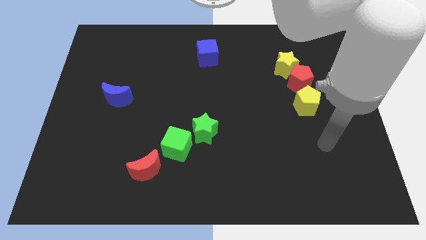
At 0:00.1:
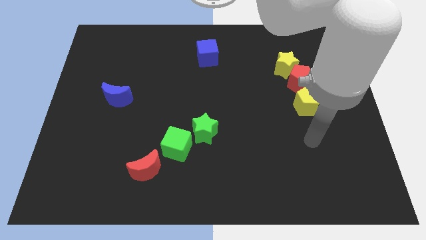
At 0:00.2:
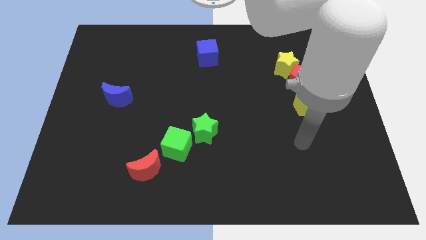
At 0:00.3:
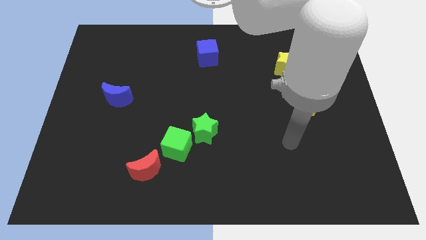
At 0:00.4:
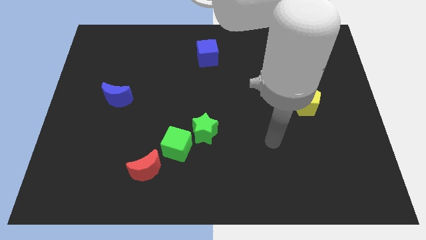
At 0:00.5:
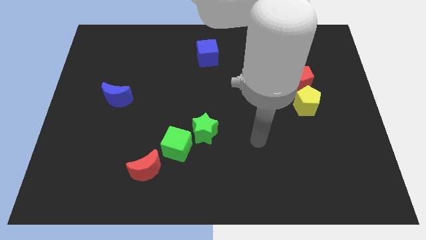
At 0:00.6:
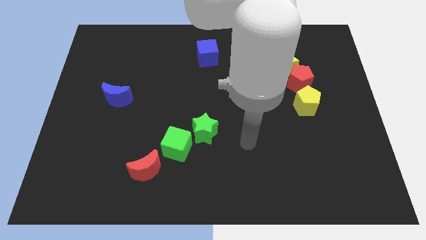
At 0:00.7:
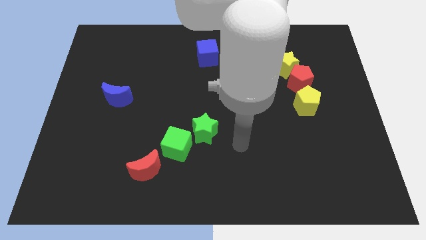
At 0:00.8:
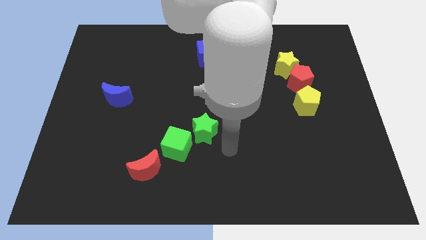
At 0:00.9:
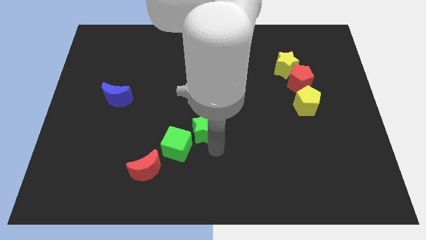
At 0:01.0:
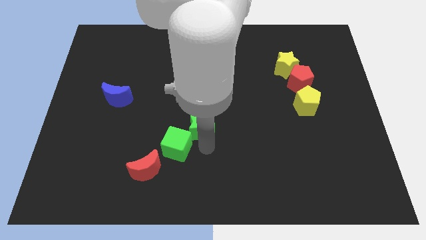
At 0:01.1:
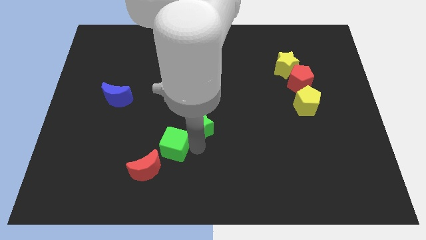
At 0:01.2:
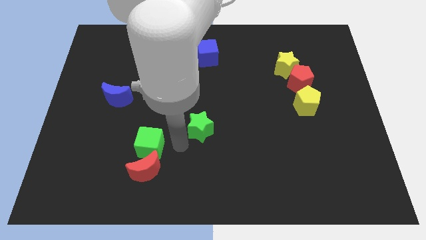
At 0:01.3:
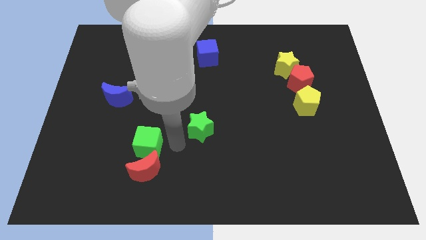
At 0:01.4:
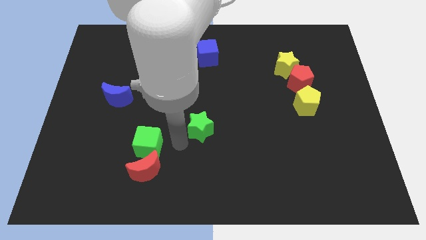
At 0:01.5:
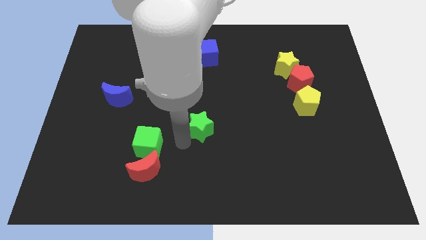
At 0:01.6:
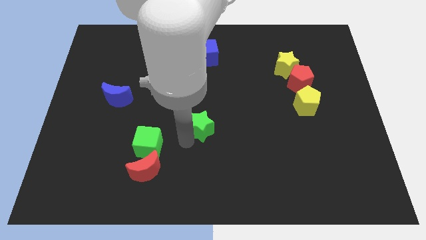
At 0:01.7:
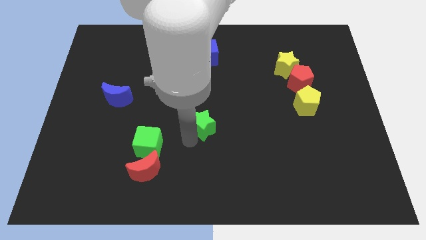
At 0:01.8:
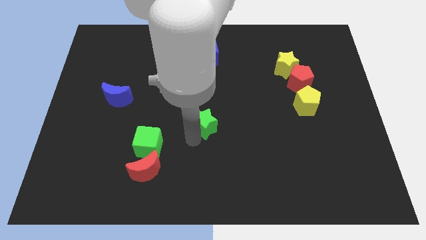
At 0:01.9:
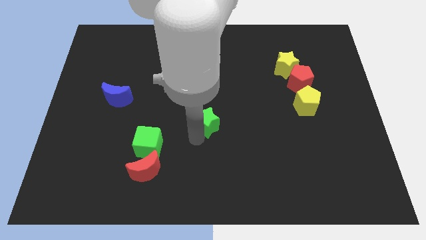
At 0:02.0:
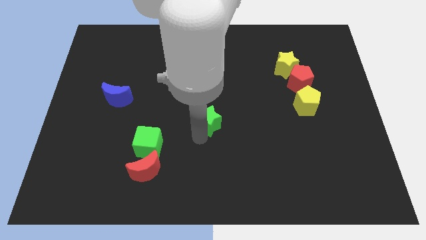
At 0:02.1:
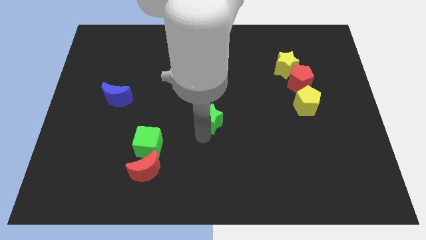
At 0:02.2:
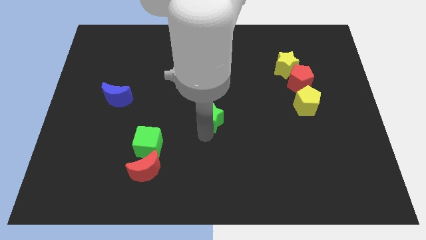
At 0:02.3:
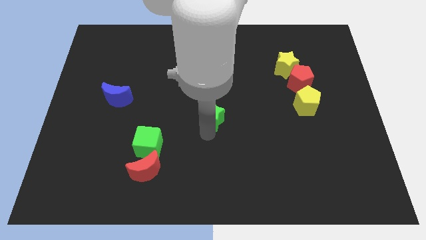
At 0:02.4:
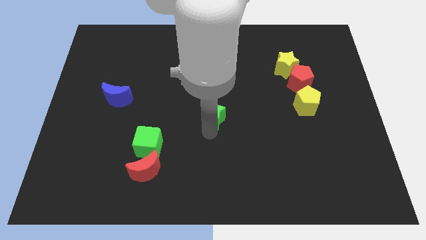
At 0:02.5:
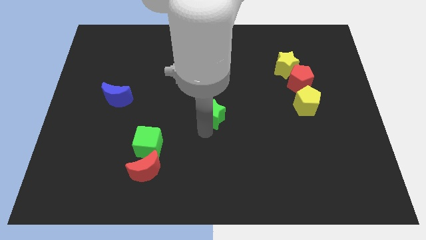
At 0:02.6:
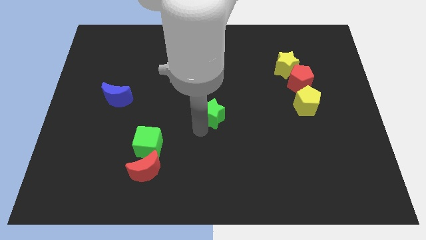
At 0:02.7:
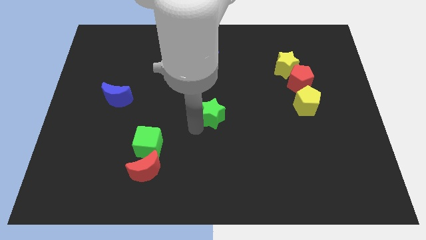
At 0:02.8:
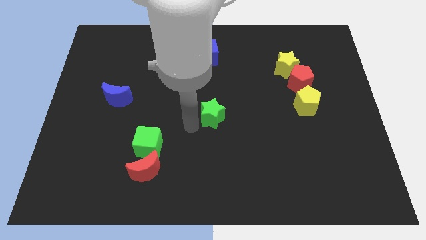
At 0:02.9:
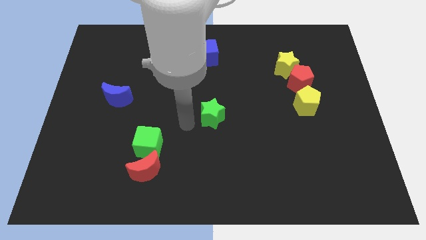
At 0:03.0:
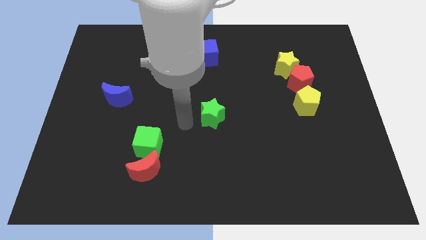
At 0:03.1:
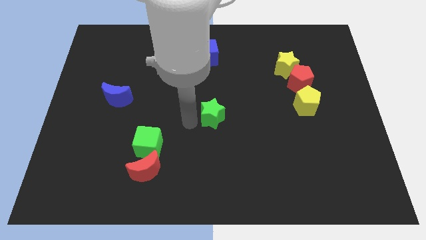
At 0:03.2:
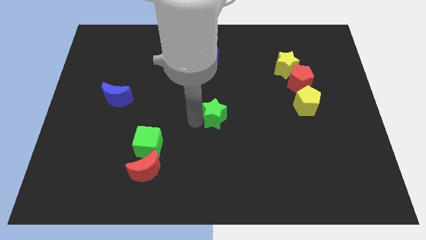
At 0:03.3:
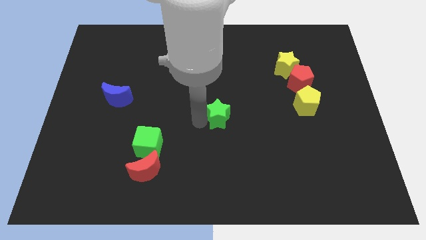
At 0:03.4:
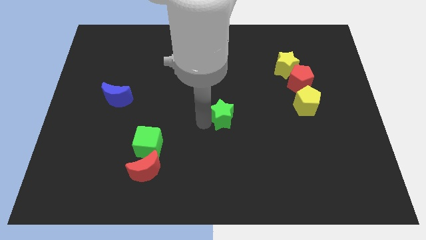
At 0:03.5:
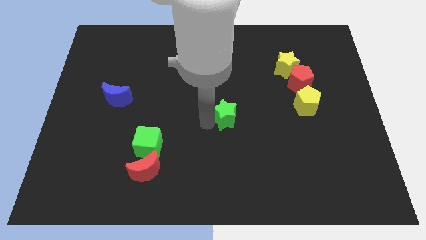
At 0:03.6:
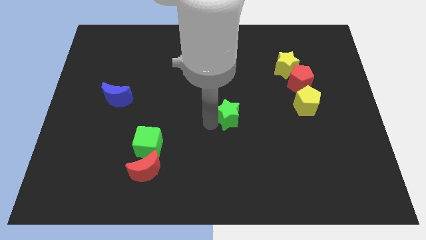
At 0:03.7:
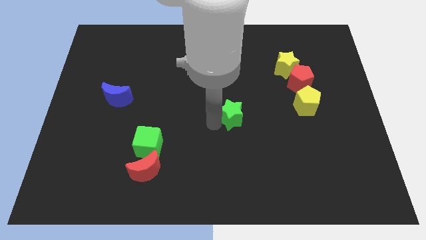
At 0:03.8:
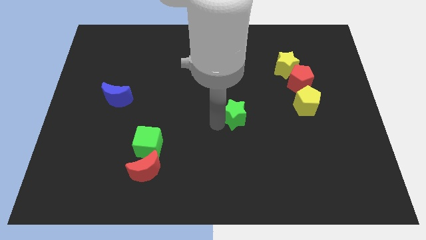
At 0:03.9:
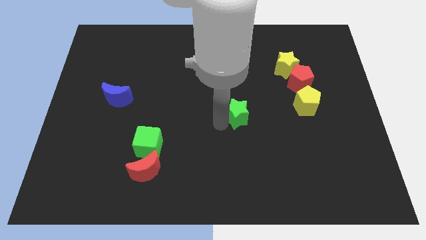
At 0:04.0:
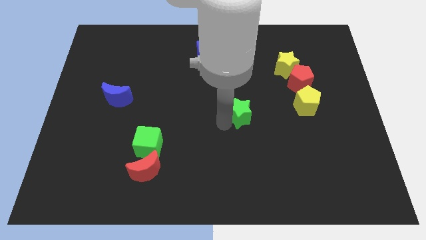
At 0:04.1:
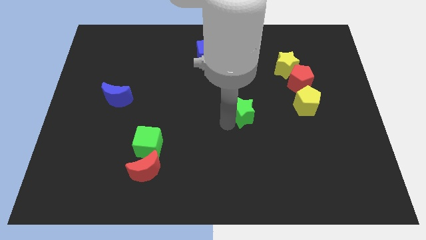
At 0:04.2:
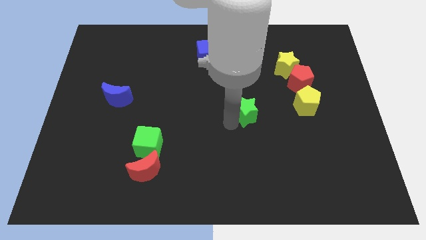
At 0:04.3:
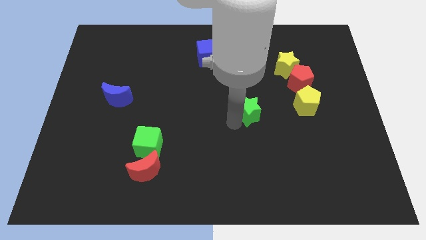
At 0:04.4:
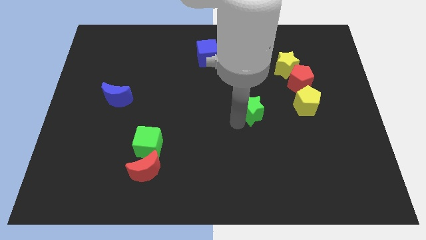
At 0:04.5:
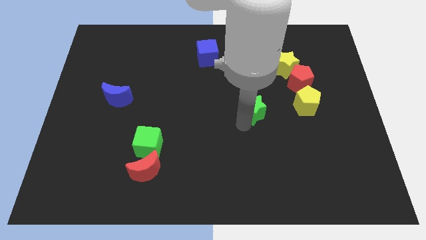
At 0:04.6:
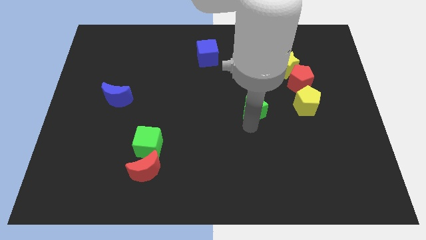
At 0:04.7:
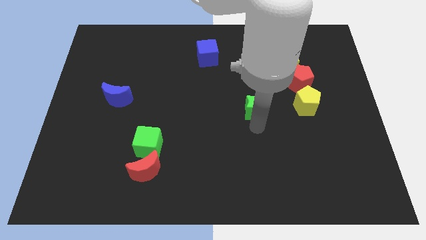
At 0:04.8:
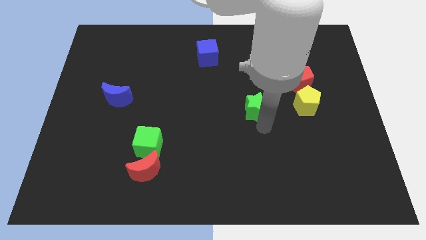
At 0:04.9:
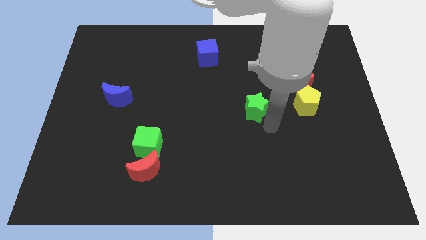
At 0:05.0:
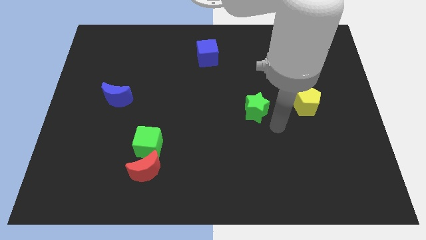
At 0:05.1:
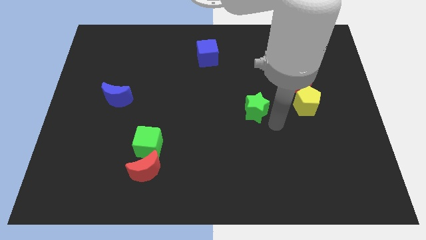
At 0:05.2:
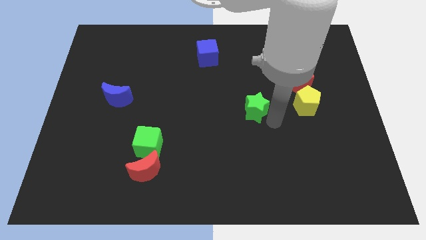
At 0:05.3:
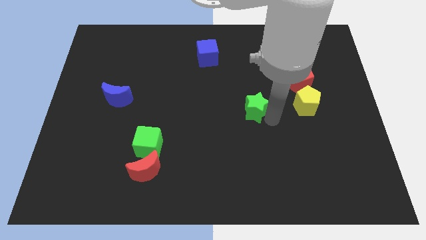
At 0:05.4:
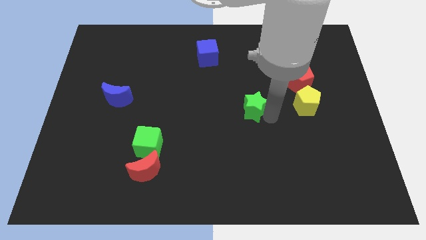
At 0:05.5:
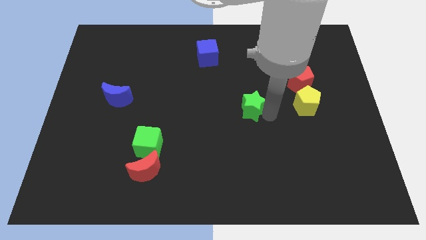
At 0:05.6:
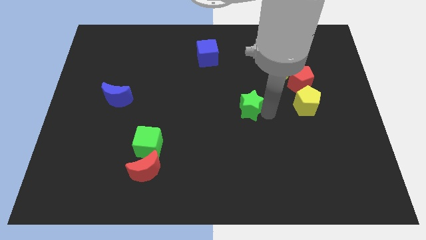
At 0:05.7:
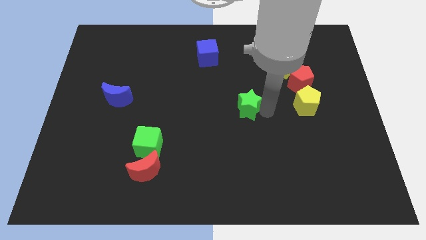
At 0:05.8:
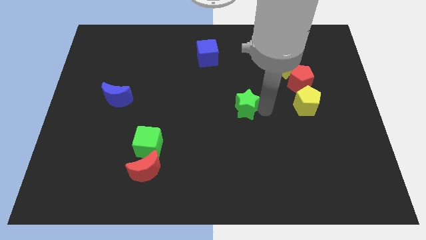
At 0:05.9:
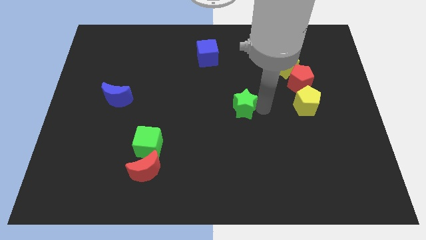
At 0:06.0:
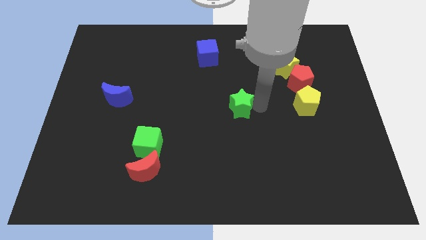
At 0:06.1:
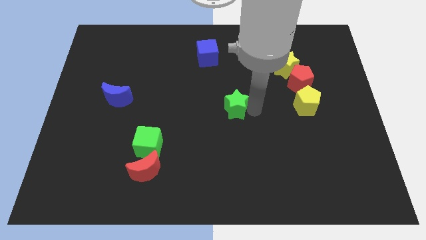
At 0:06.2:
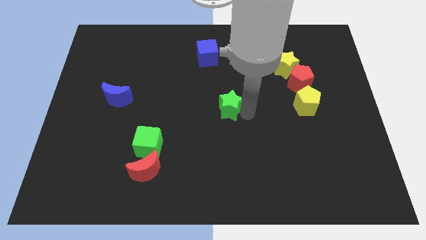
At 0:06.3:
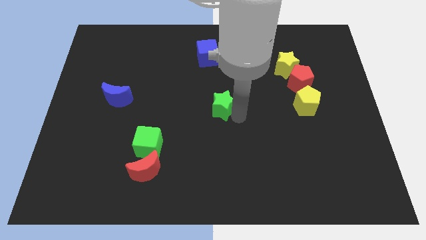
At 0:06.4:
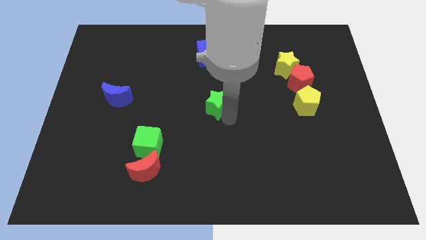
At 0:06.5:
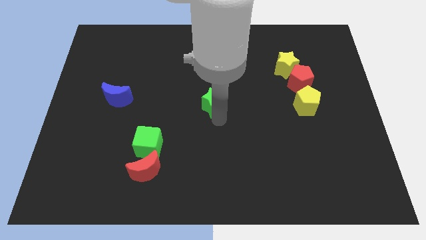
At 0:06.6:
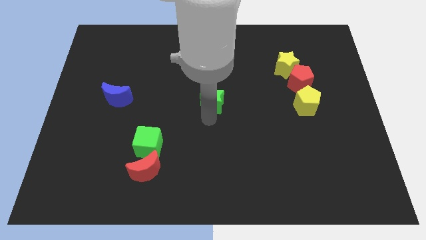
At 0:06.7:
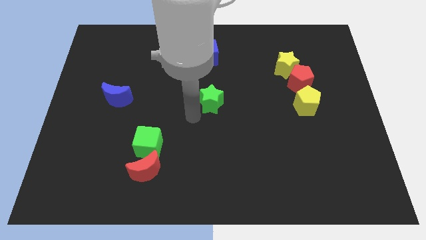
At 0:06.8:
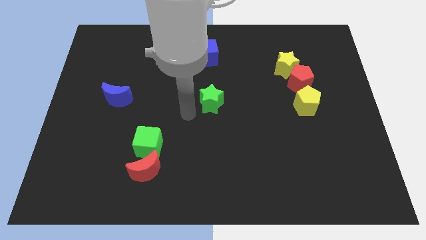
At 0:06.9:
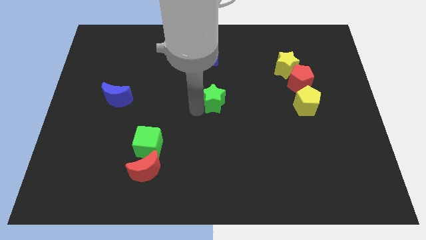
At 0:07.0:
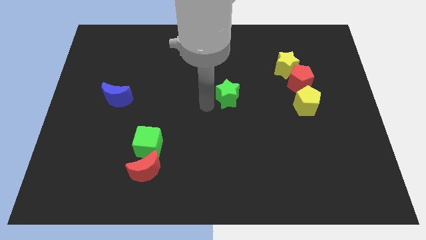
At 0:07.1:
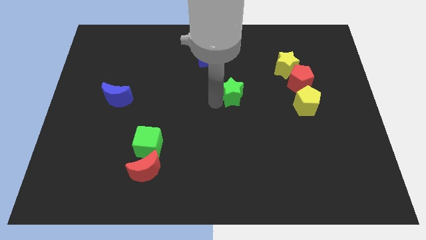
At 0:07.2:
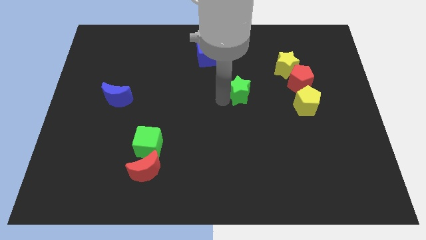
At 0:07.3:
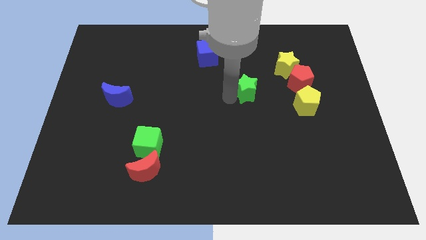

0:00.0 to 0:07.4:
push the green star left of the red pentagon
